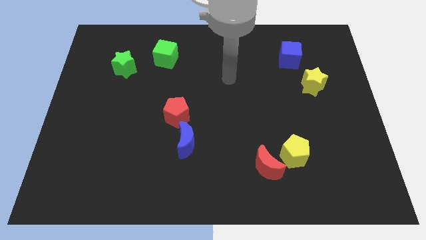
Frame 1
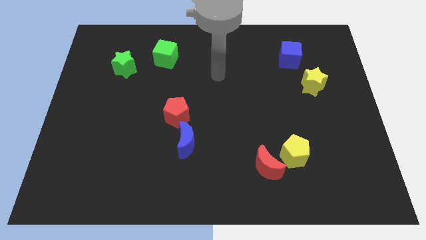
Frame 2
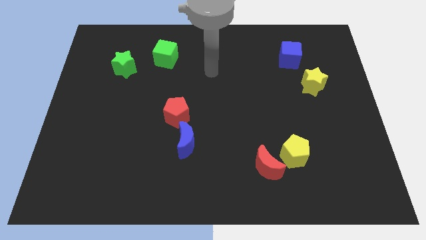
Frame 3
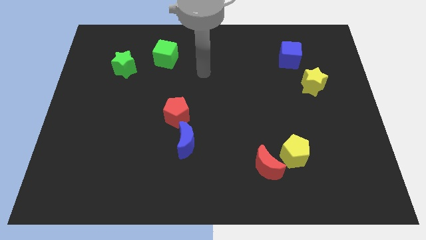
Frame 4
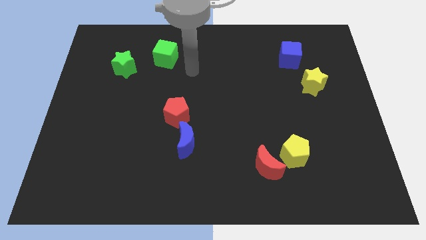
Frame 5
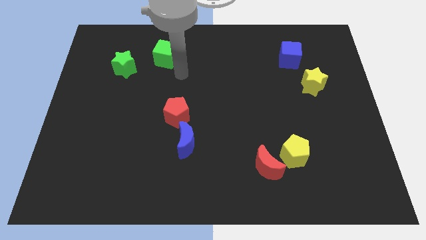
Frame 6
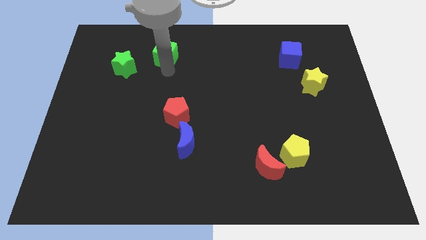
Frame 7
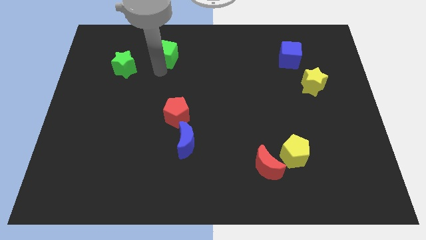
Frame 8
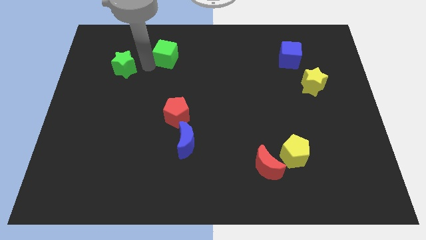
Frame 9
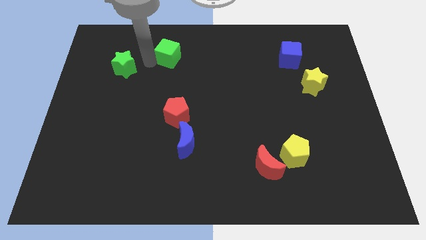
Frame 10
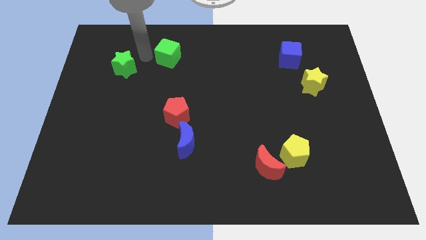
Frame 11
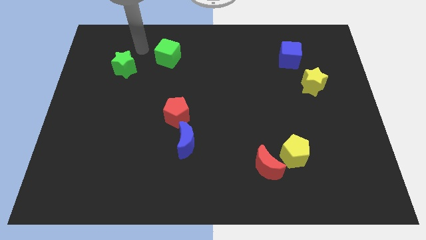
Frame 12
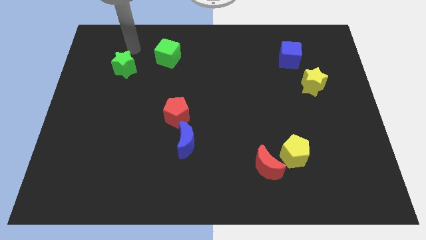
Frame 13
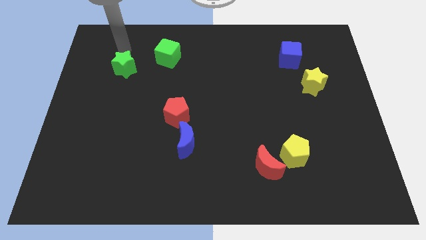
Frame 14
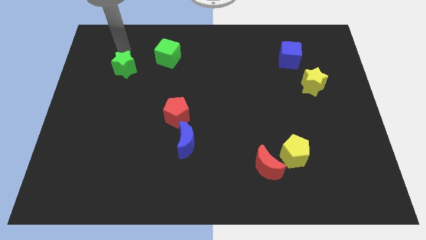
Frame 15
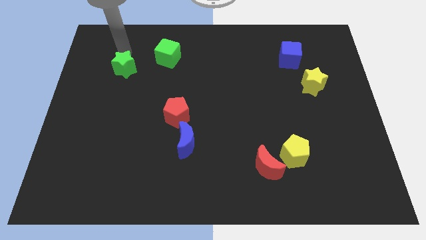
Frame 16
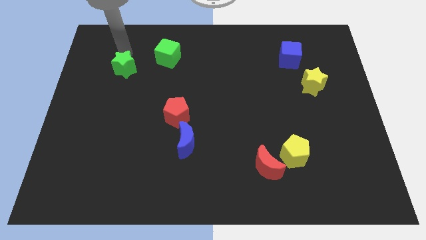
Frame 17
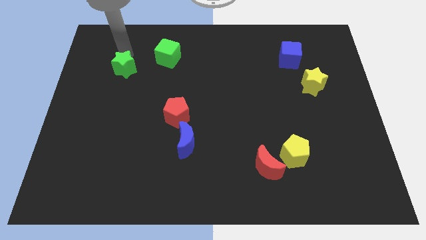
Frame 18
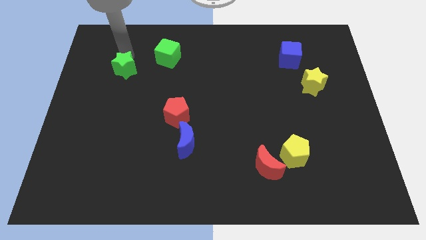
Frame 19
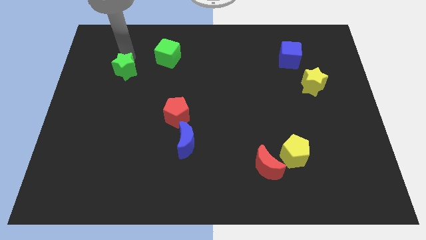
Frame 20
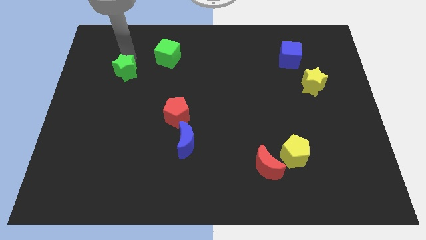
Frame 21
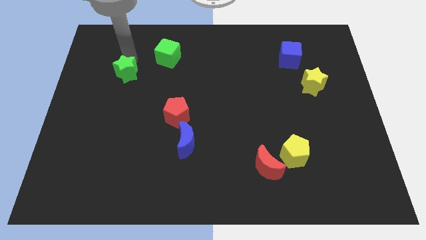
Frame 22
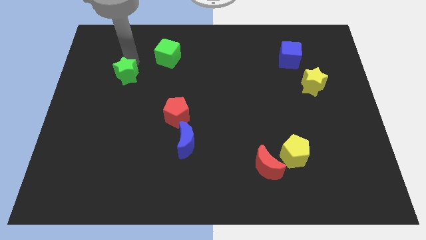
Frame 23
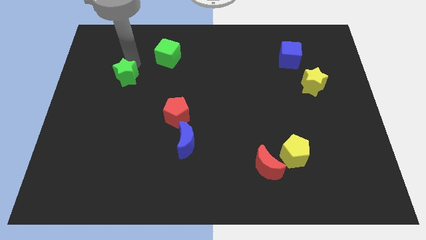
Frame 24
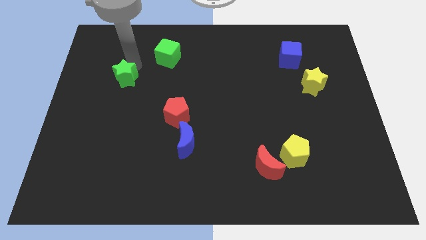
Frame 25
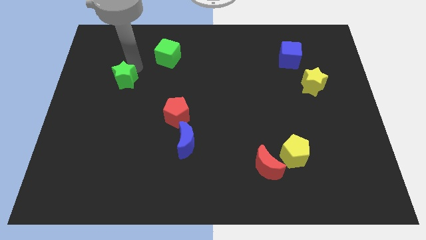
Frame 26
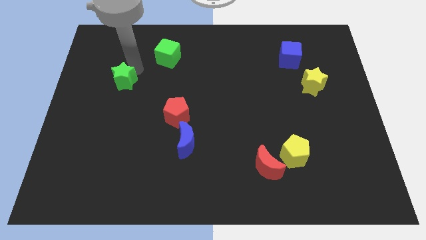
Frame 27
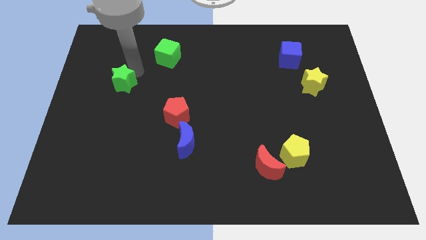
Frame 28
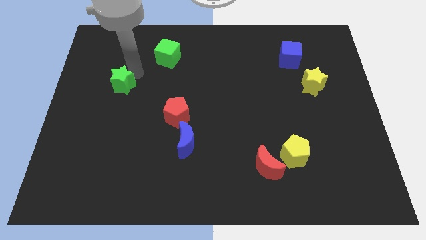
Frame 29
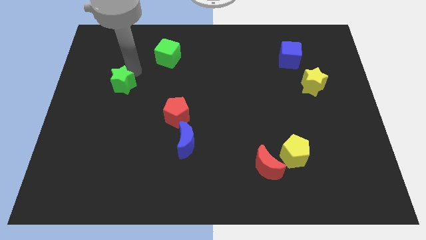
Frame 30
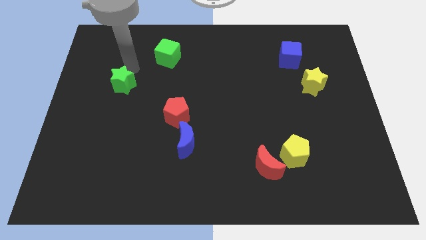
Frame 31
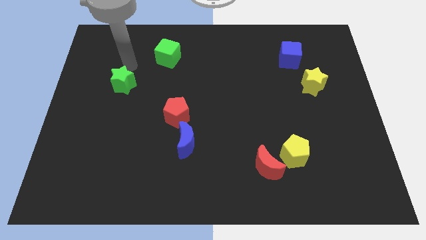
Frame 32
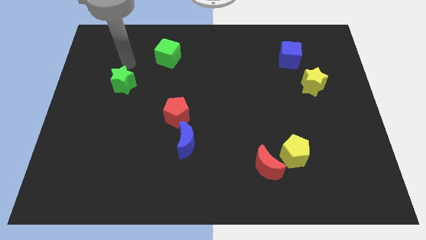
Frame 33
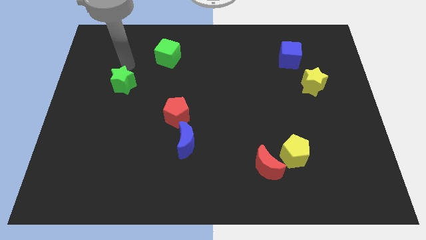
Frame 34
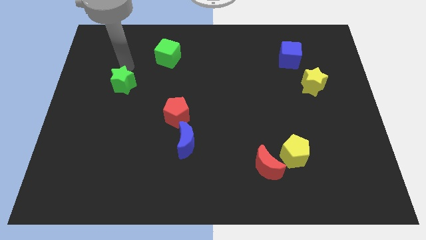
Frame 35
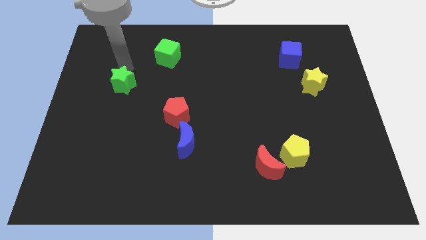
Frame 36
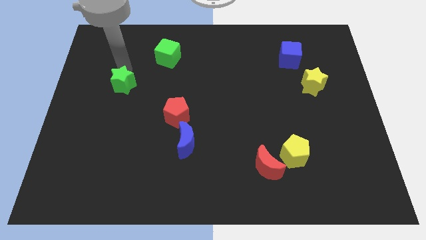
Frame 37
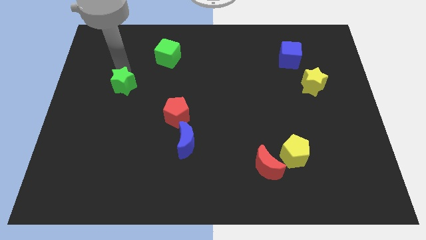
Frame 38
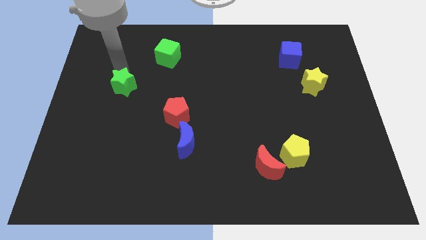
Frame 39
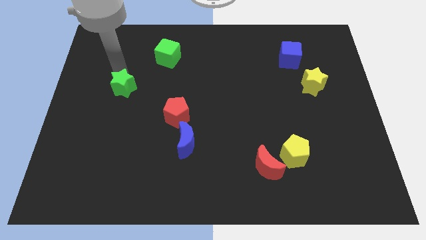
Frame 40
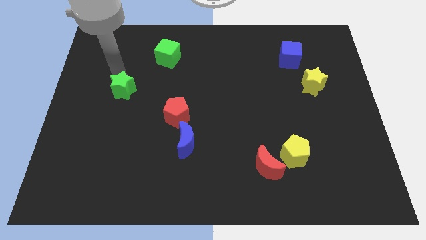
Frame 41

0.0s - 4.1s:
slide the green star down somewhat

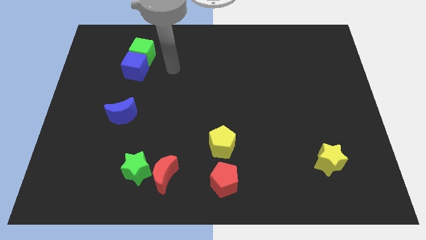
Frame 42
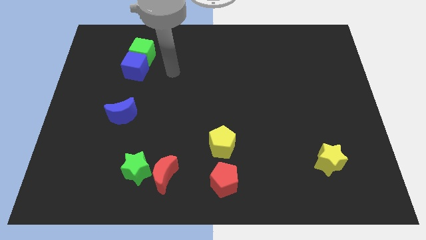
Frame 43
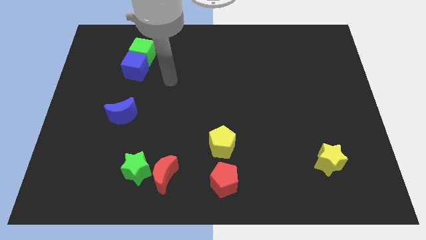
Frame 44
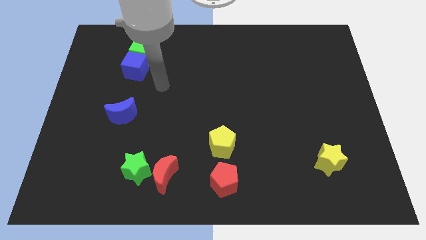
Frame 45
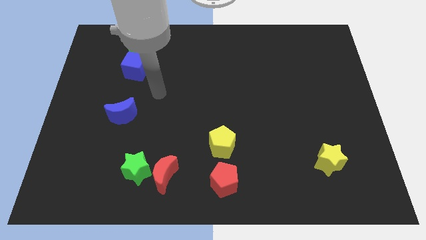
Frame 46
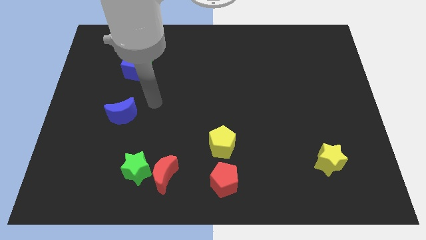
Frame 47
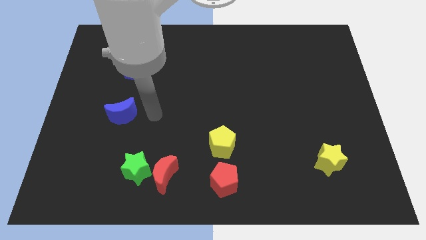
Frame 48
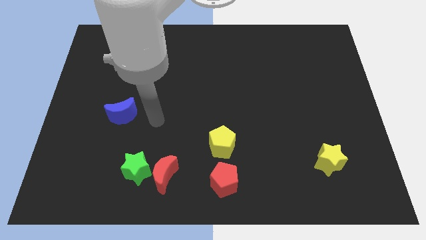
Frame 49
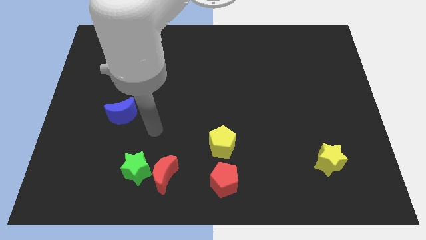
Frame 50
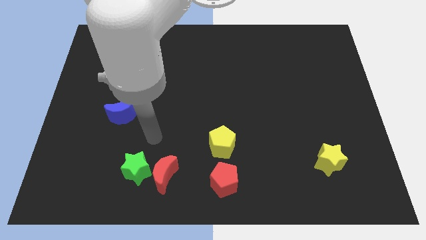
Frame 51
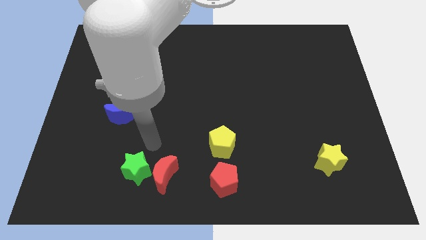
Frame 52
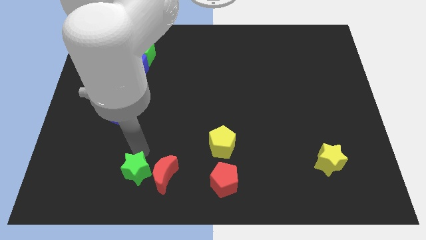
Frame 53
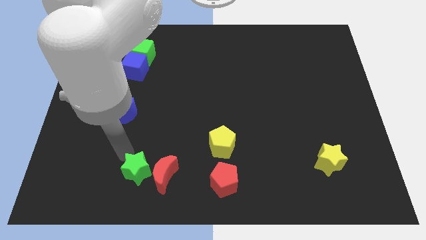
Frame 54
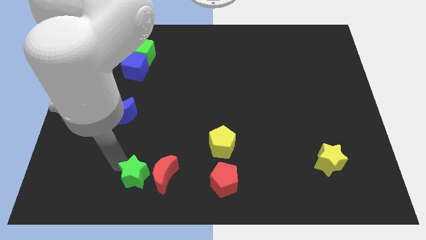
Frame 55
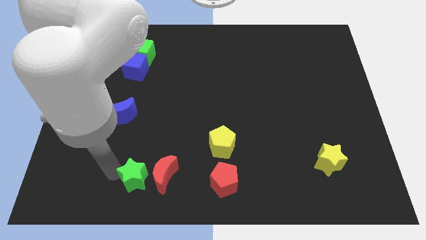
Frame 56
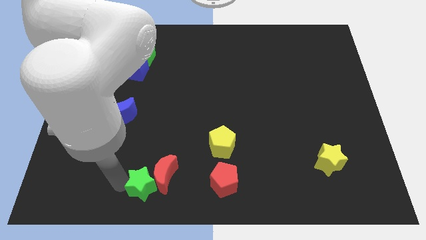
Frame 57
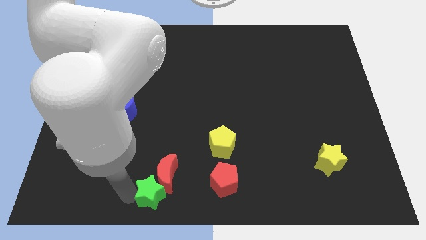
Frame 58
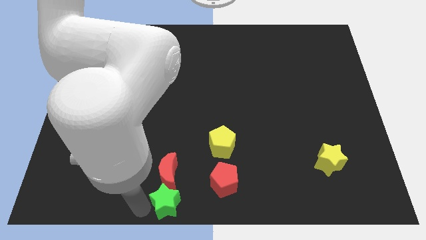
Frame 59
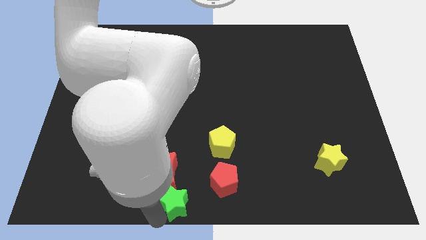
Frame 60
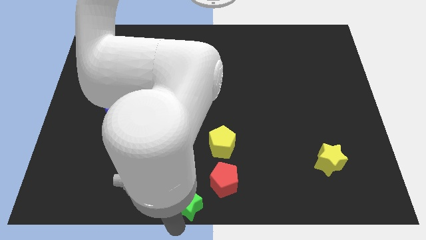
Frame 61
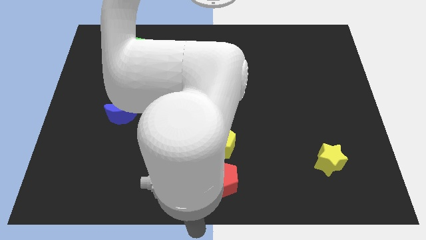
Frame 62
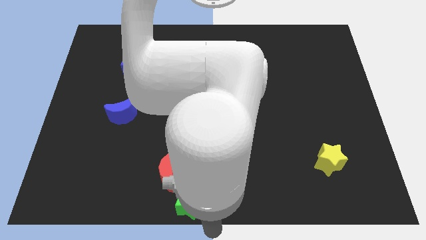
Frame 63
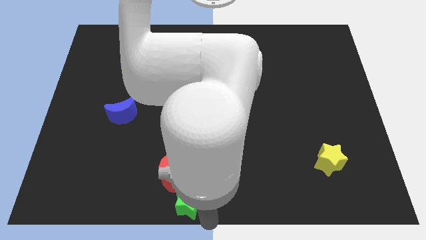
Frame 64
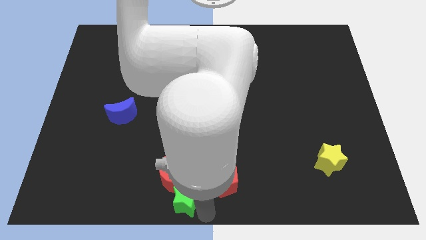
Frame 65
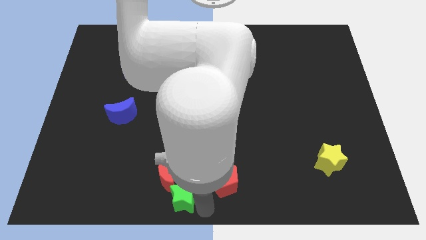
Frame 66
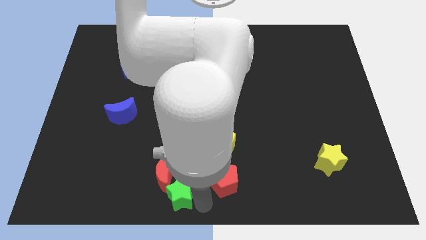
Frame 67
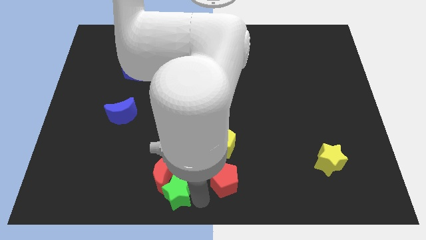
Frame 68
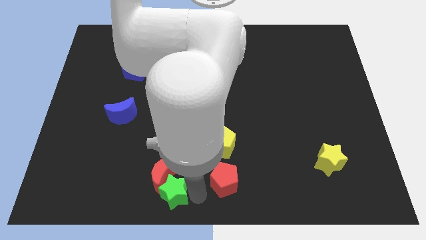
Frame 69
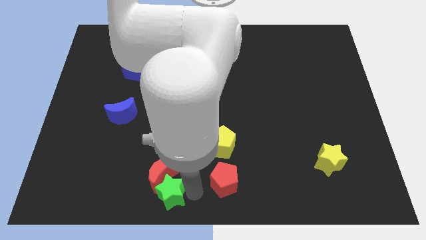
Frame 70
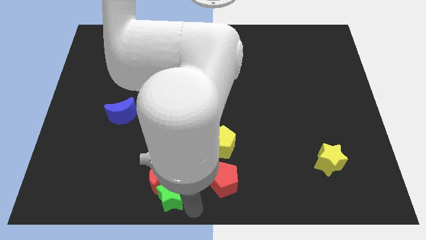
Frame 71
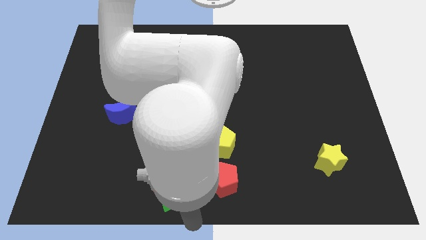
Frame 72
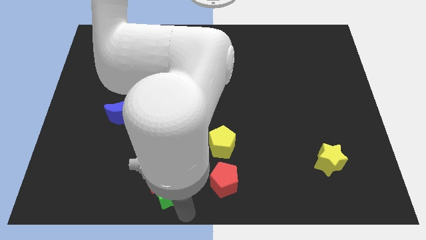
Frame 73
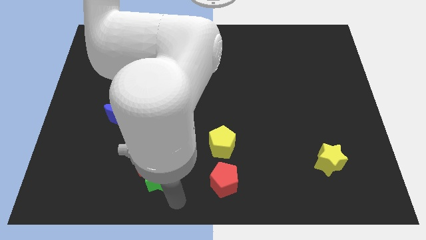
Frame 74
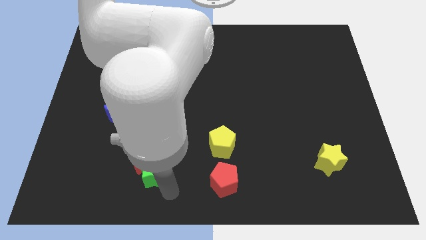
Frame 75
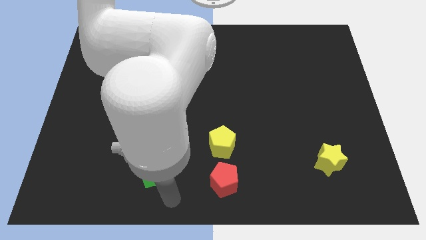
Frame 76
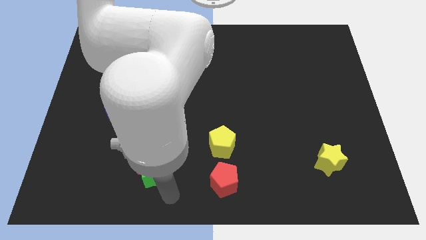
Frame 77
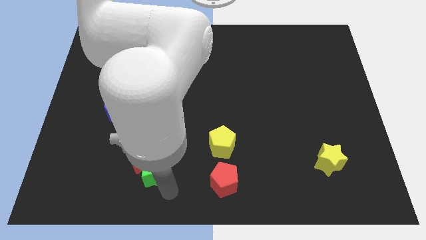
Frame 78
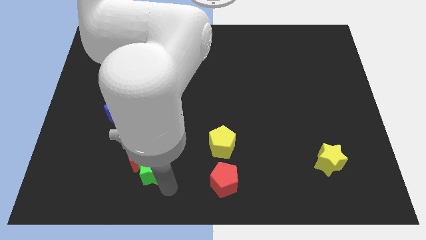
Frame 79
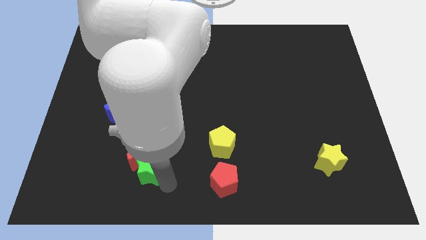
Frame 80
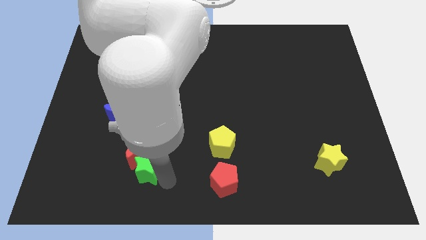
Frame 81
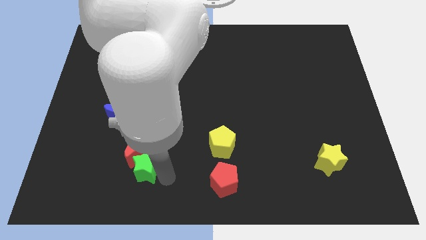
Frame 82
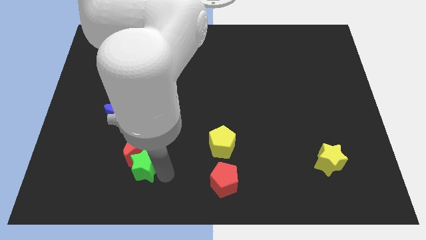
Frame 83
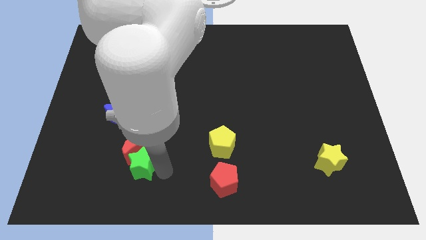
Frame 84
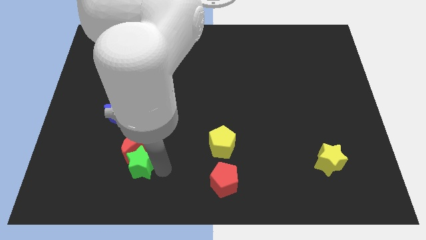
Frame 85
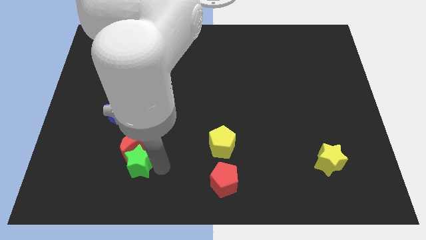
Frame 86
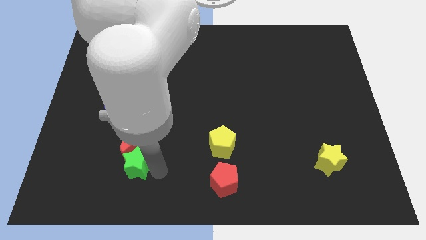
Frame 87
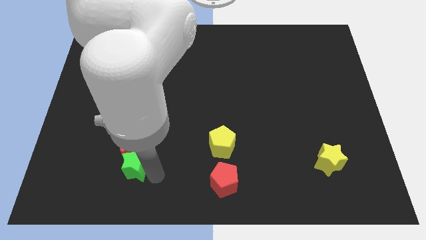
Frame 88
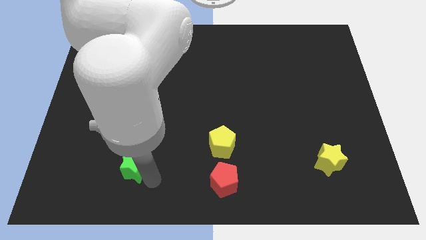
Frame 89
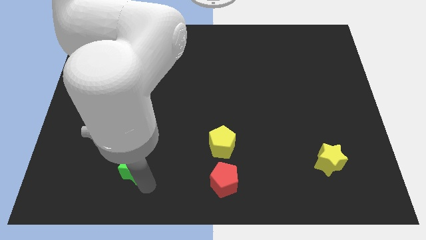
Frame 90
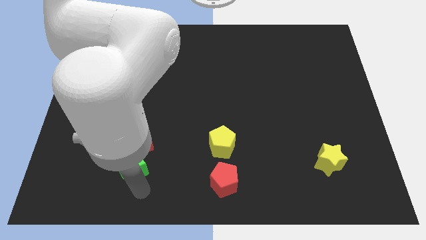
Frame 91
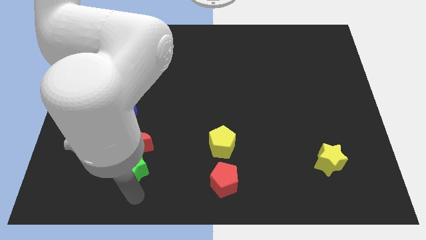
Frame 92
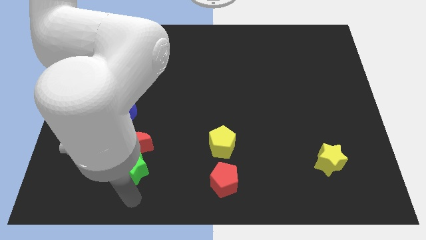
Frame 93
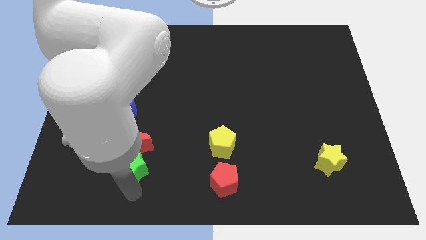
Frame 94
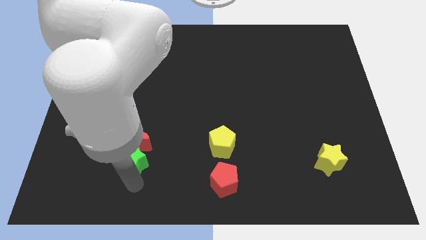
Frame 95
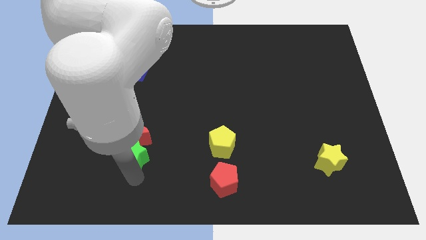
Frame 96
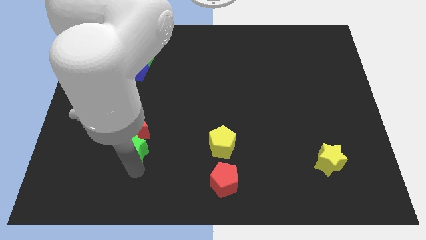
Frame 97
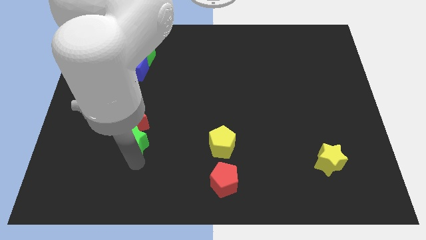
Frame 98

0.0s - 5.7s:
slightly push the green star up
